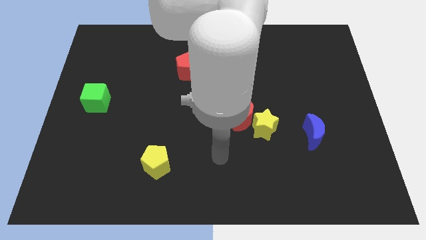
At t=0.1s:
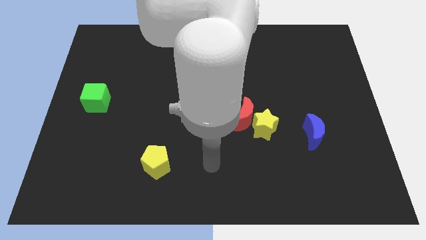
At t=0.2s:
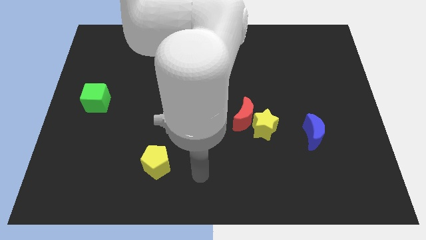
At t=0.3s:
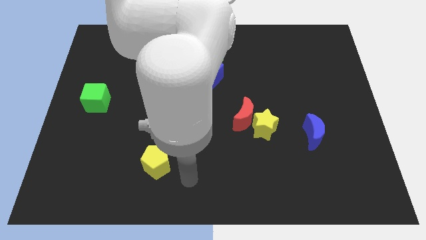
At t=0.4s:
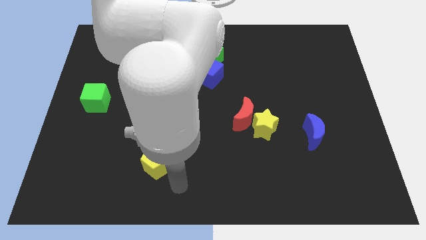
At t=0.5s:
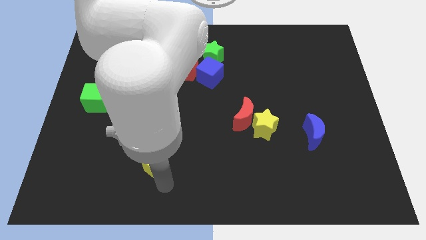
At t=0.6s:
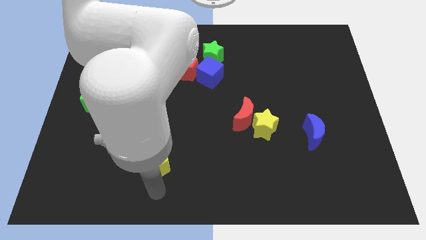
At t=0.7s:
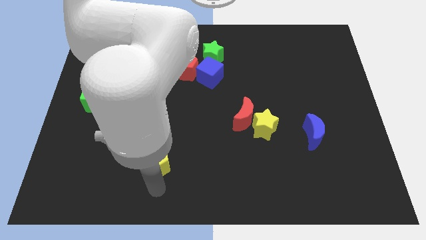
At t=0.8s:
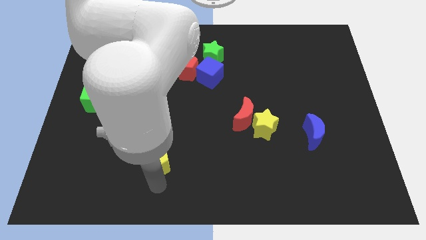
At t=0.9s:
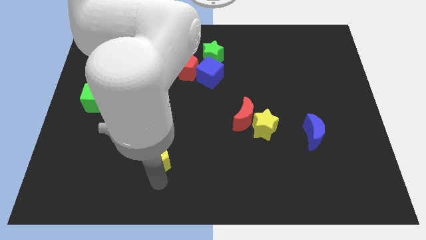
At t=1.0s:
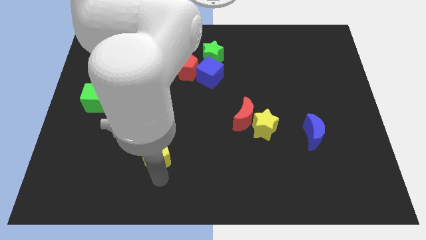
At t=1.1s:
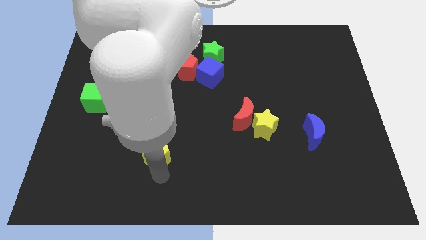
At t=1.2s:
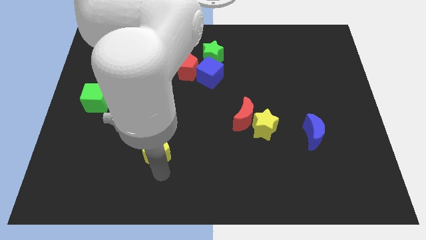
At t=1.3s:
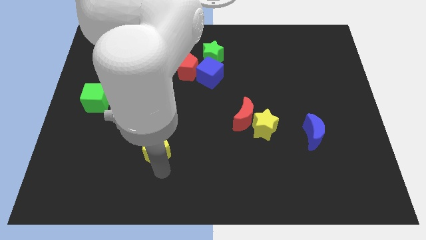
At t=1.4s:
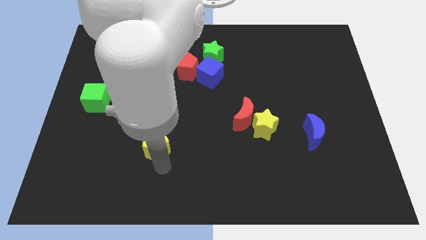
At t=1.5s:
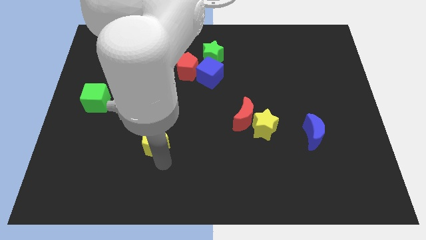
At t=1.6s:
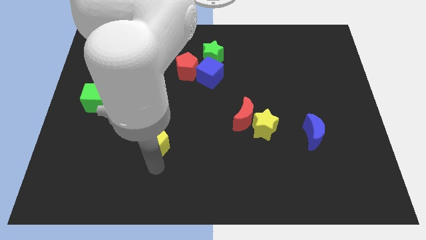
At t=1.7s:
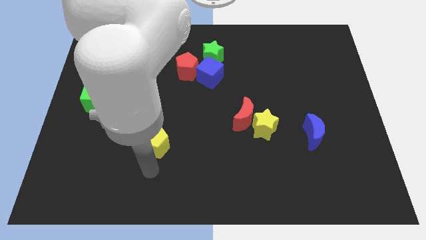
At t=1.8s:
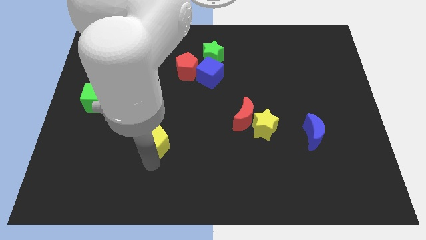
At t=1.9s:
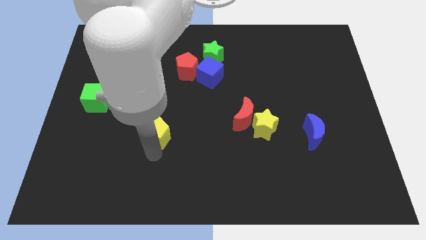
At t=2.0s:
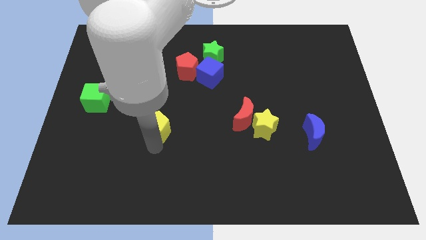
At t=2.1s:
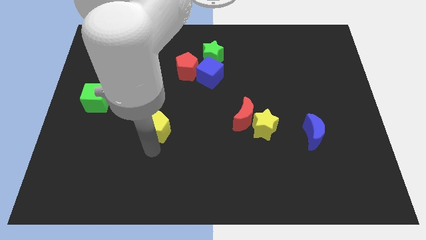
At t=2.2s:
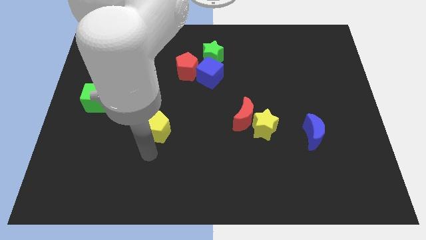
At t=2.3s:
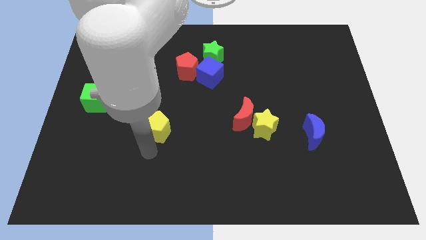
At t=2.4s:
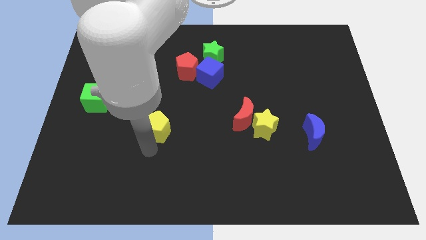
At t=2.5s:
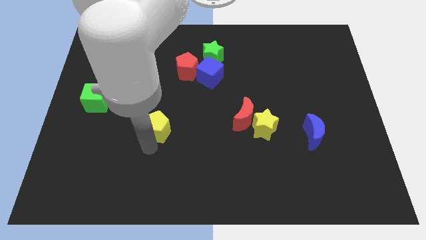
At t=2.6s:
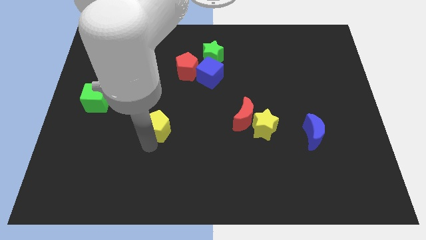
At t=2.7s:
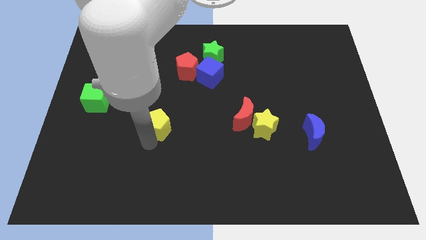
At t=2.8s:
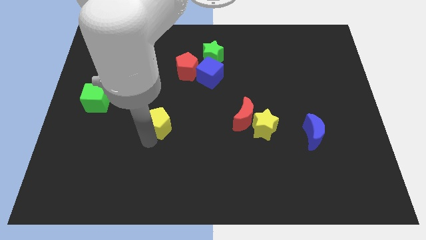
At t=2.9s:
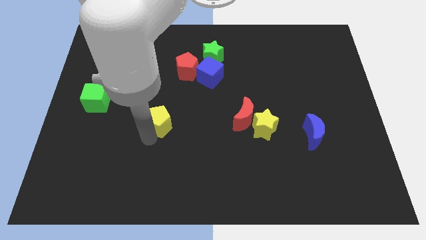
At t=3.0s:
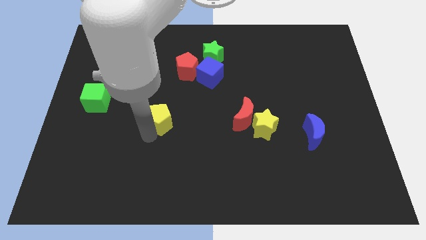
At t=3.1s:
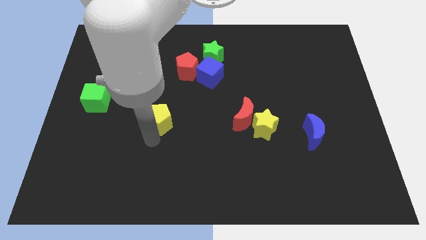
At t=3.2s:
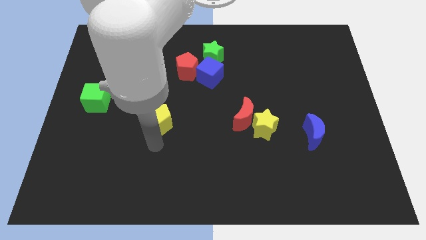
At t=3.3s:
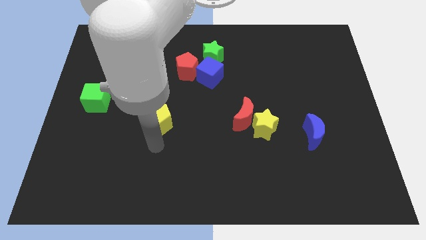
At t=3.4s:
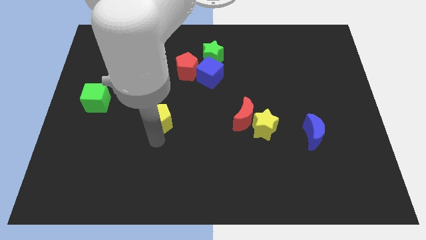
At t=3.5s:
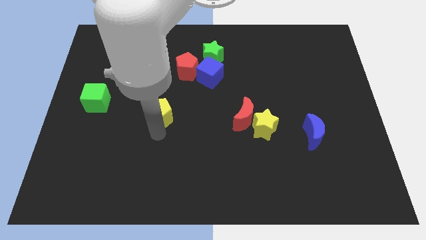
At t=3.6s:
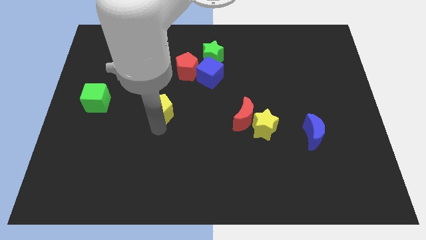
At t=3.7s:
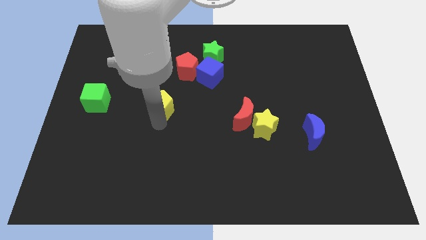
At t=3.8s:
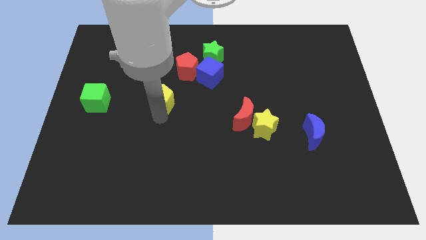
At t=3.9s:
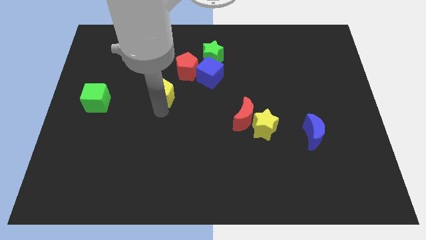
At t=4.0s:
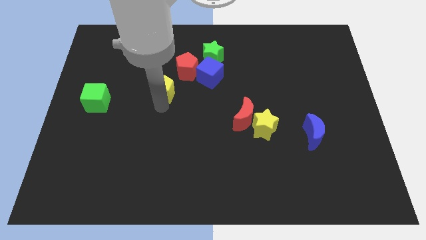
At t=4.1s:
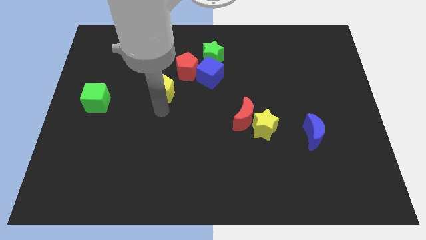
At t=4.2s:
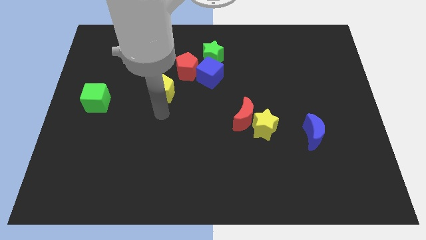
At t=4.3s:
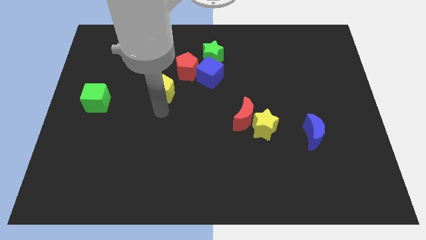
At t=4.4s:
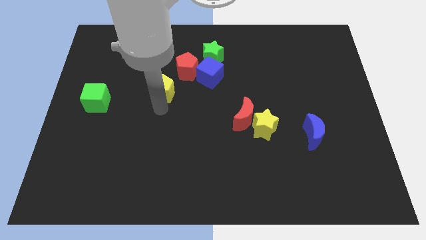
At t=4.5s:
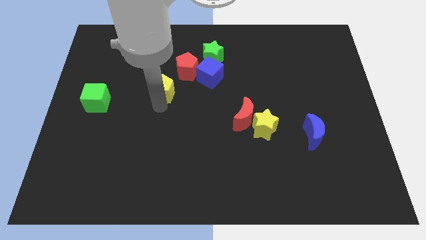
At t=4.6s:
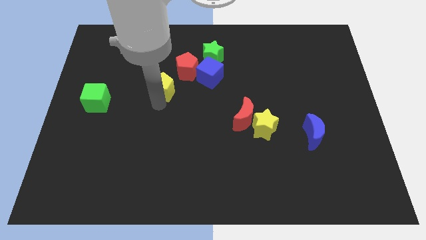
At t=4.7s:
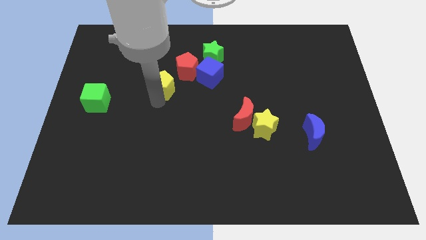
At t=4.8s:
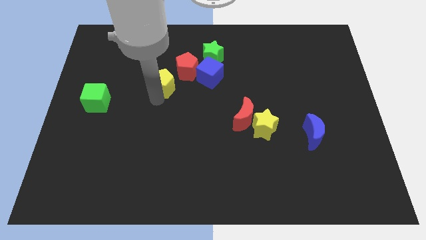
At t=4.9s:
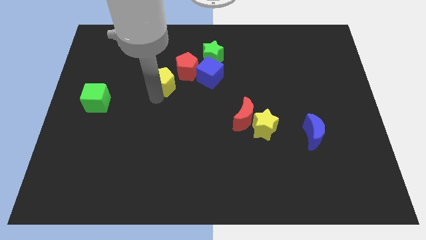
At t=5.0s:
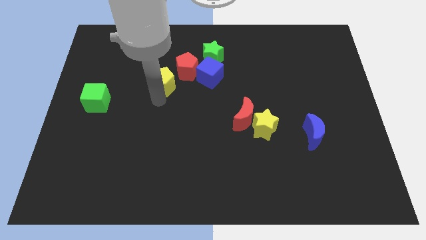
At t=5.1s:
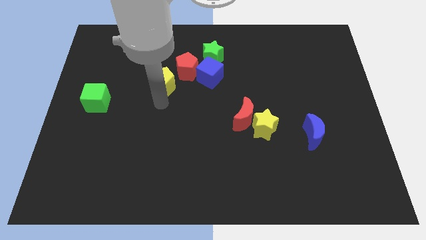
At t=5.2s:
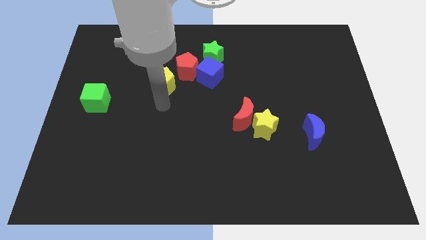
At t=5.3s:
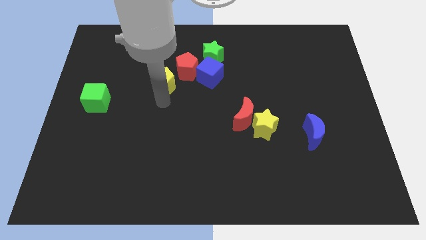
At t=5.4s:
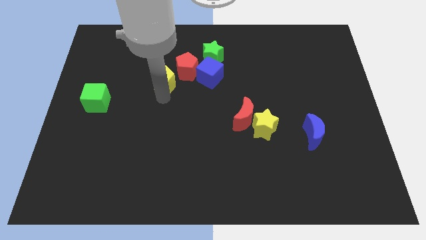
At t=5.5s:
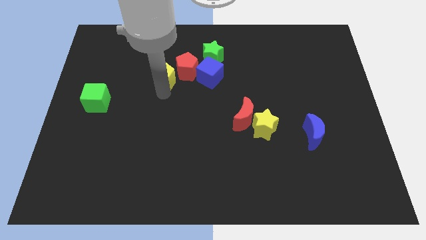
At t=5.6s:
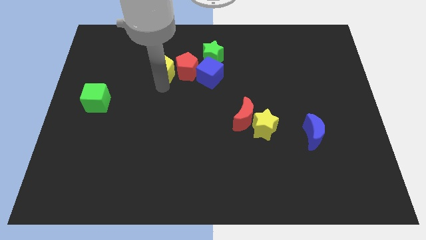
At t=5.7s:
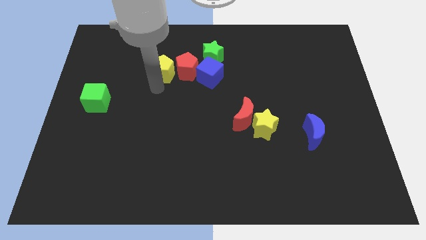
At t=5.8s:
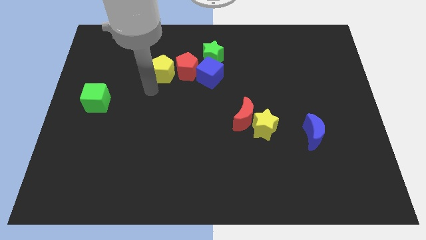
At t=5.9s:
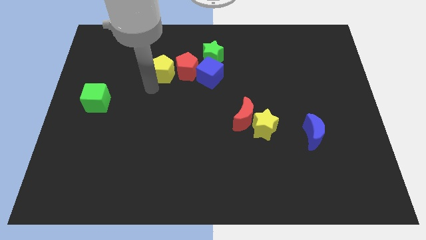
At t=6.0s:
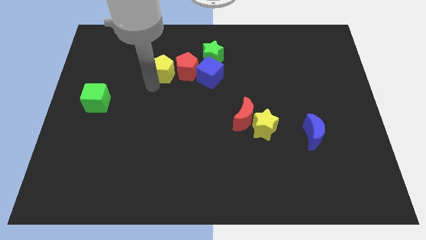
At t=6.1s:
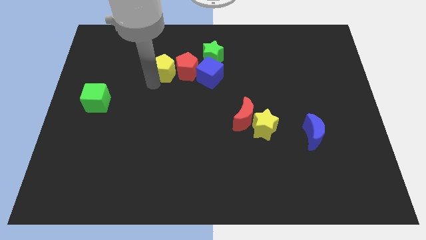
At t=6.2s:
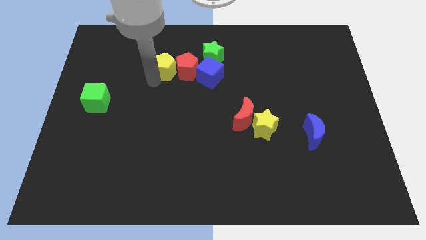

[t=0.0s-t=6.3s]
put the yellow pentagon left of the green star

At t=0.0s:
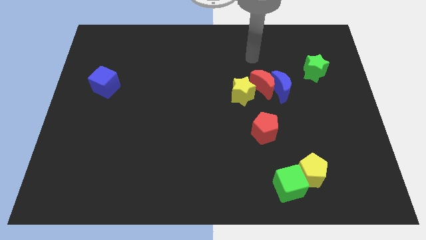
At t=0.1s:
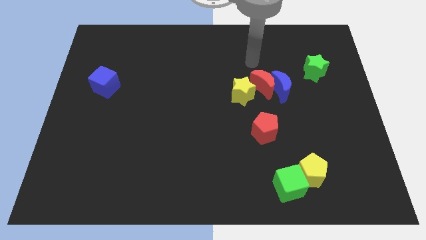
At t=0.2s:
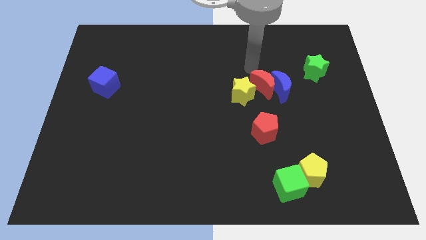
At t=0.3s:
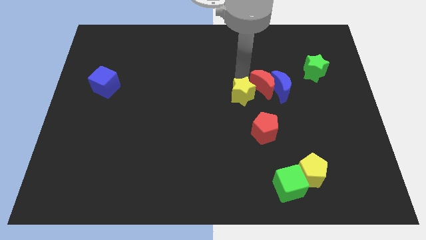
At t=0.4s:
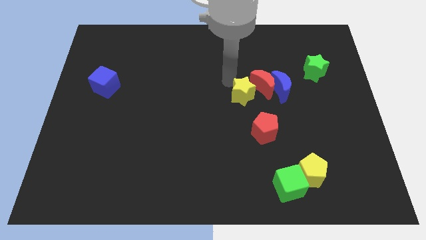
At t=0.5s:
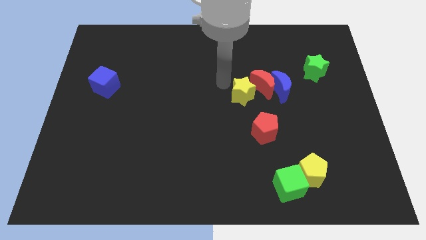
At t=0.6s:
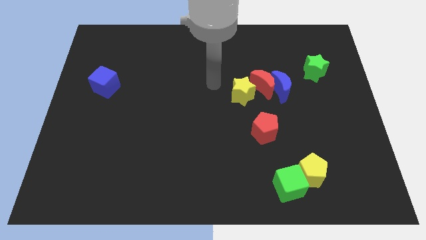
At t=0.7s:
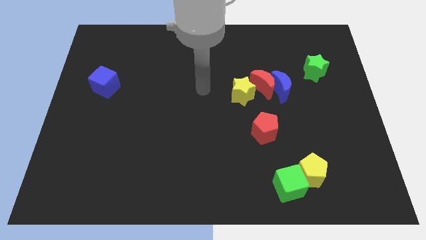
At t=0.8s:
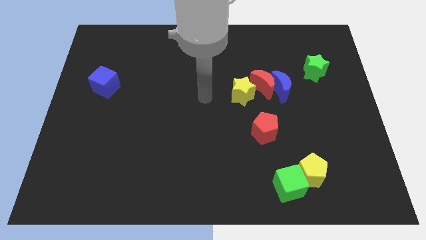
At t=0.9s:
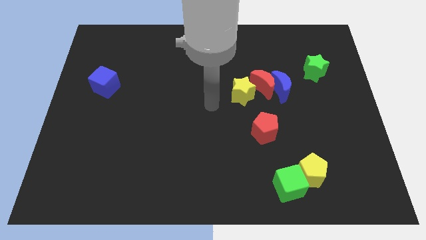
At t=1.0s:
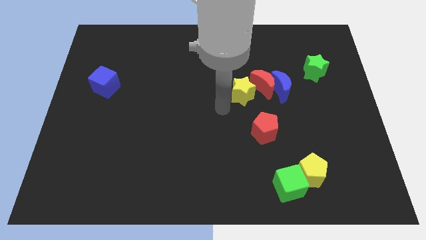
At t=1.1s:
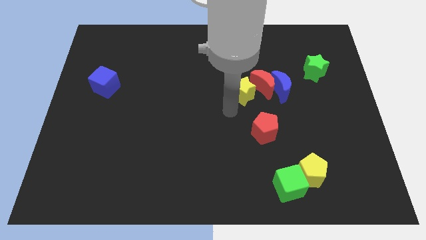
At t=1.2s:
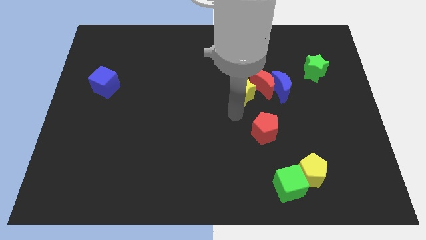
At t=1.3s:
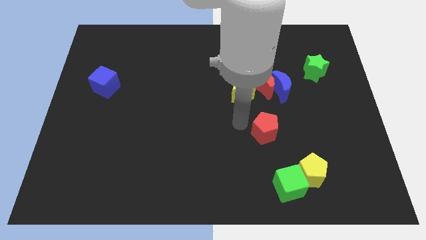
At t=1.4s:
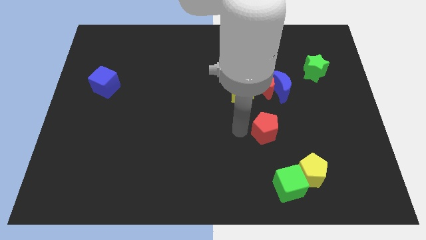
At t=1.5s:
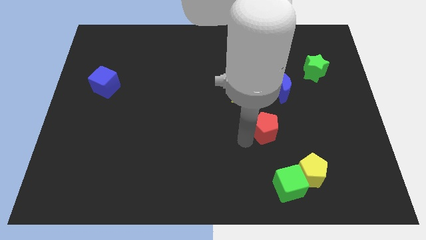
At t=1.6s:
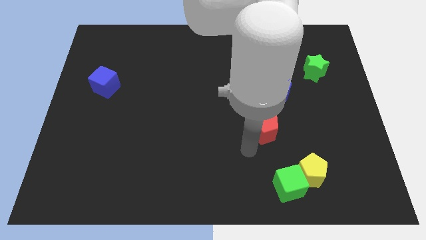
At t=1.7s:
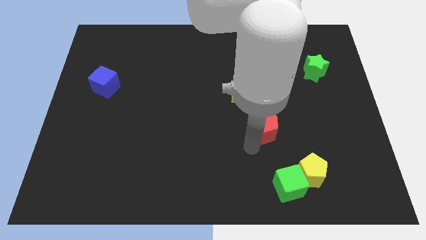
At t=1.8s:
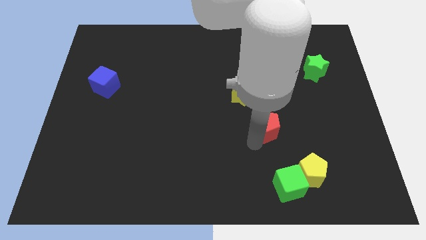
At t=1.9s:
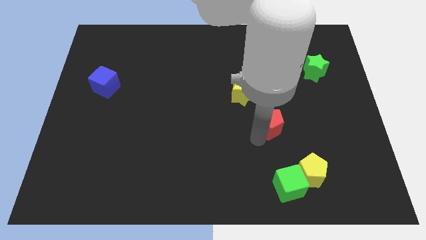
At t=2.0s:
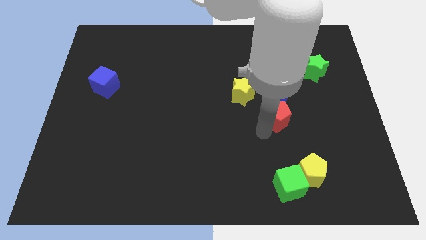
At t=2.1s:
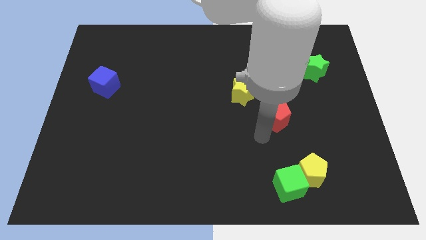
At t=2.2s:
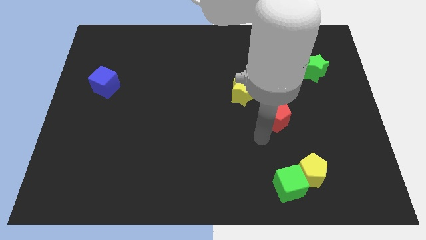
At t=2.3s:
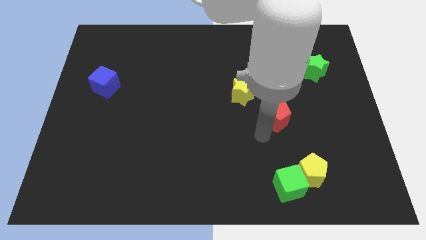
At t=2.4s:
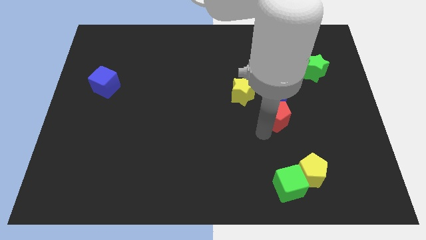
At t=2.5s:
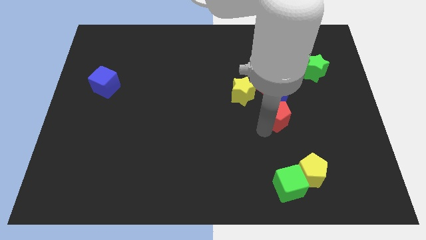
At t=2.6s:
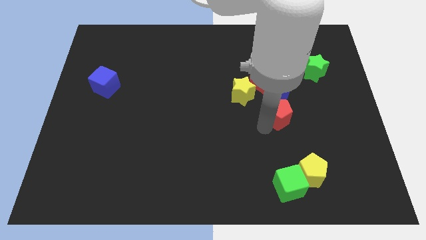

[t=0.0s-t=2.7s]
slide the red pentagon to the bottom right side of the red moon
